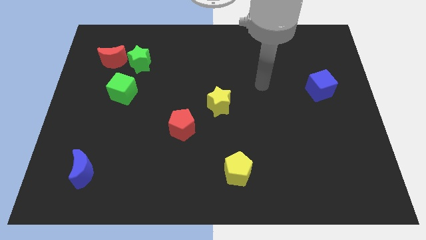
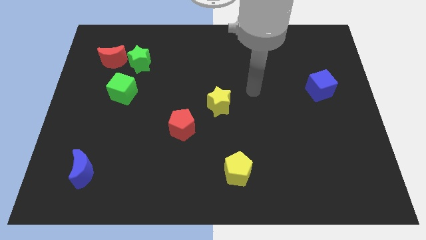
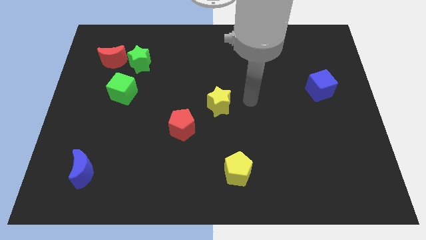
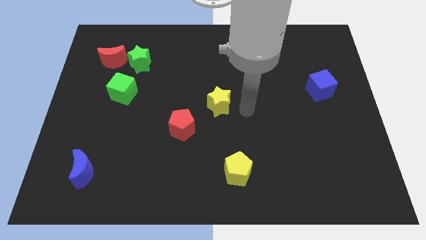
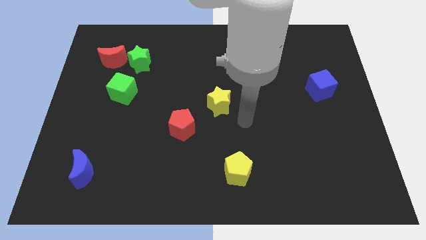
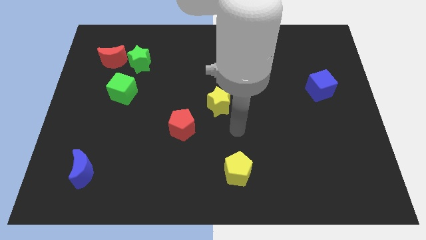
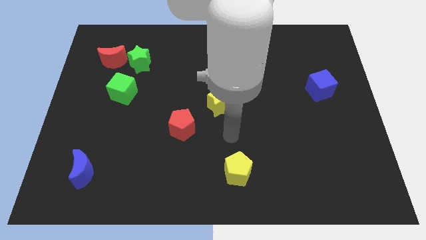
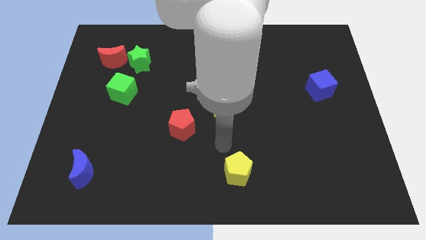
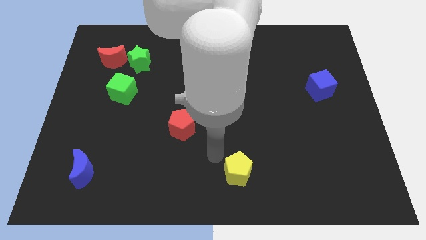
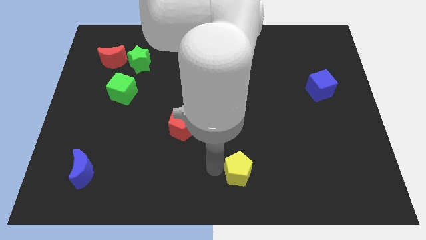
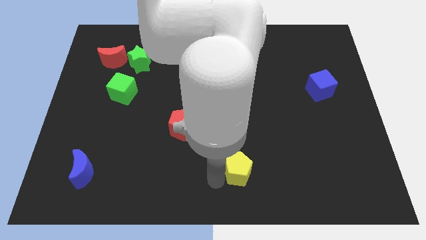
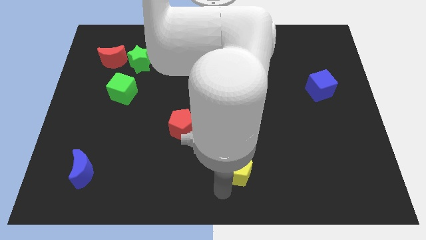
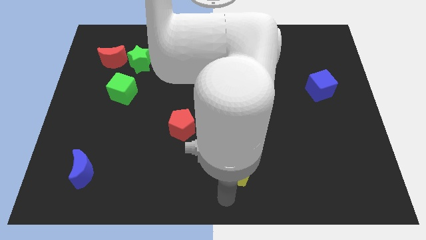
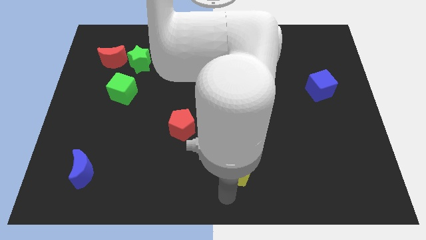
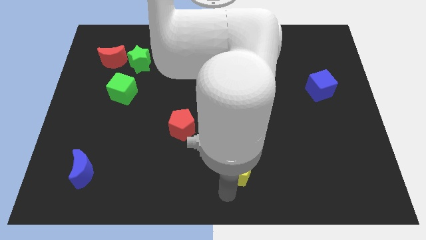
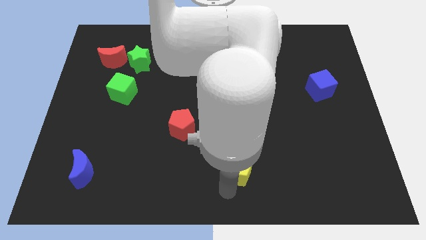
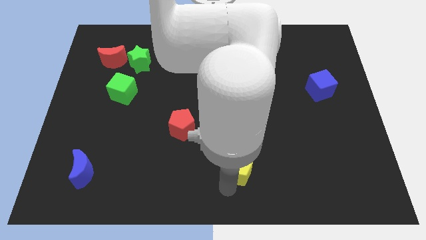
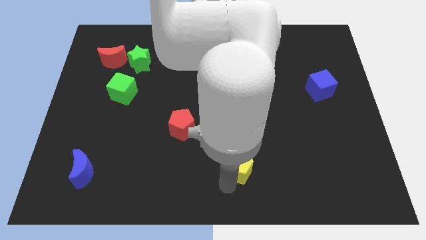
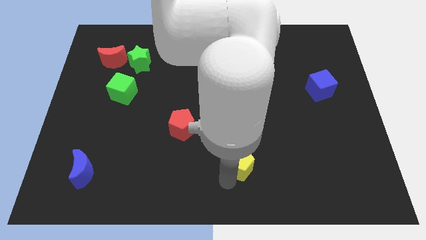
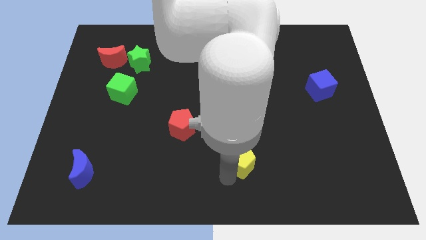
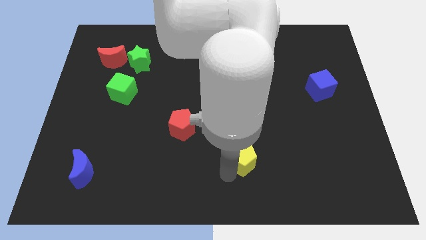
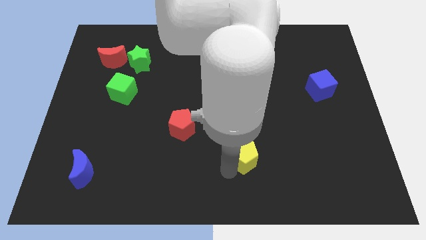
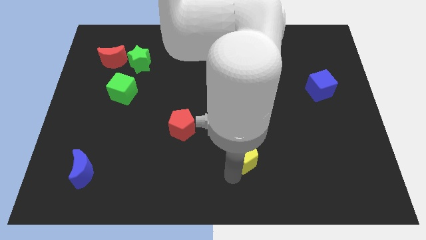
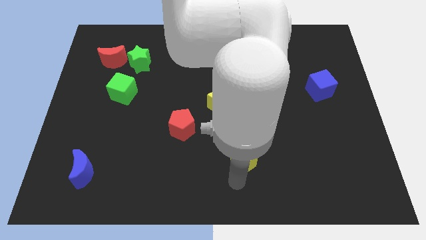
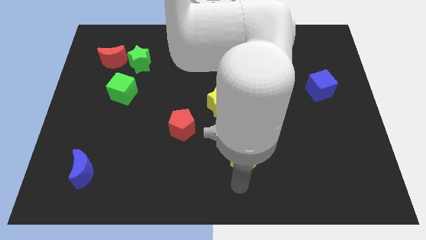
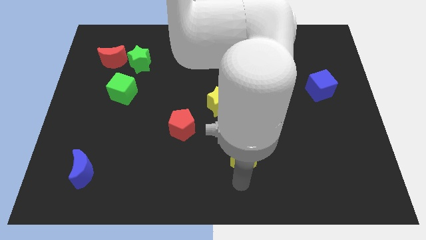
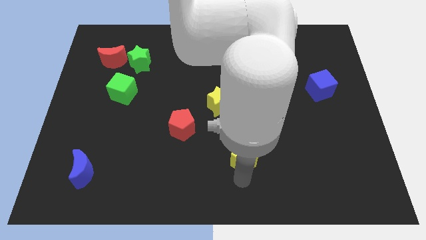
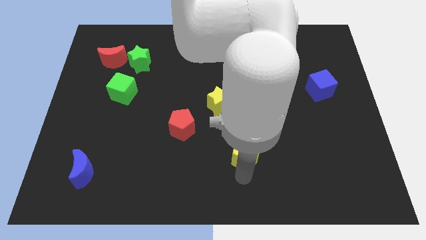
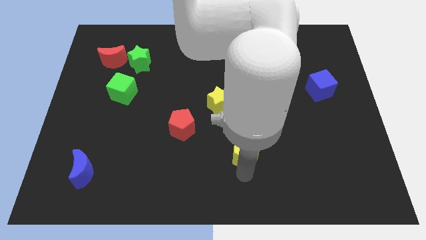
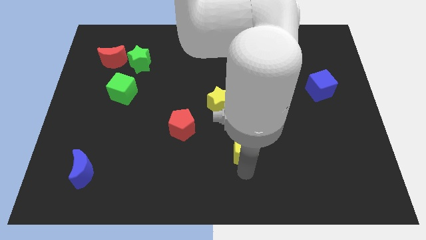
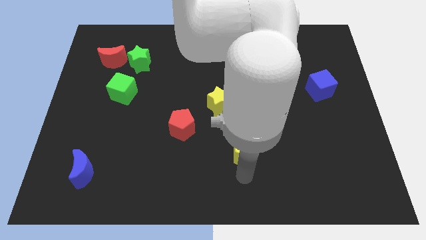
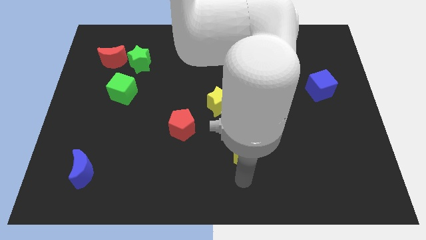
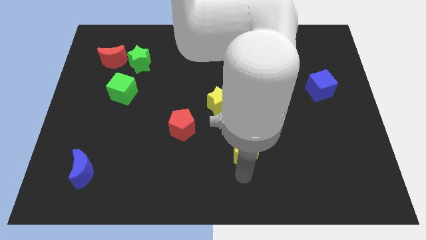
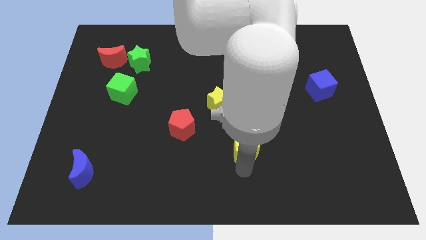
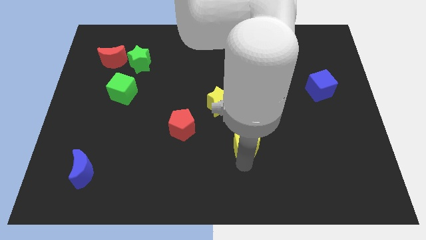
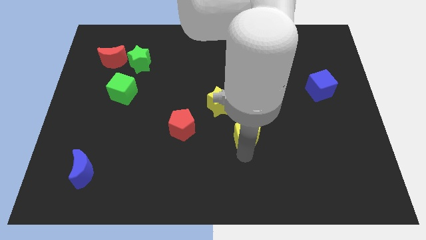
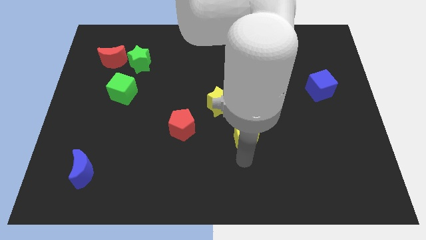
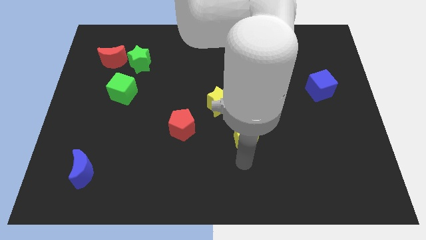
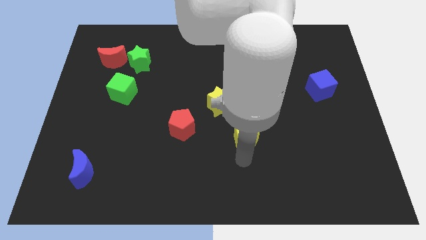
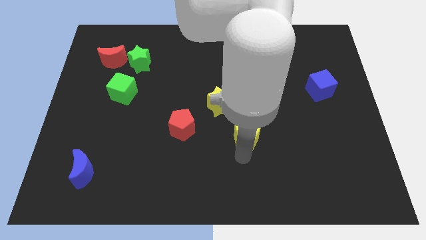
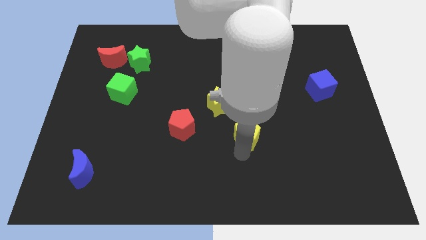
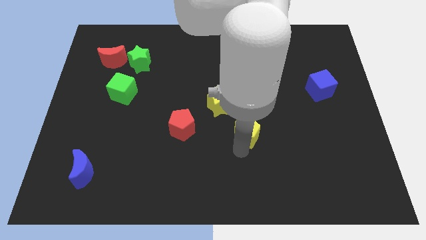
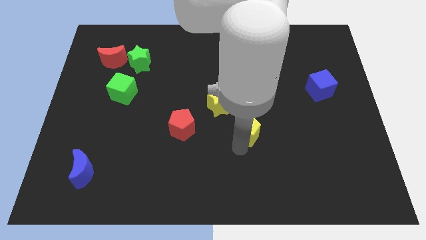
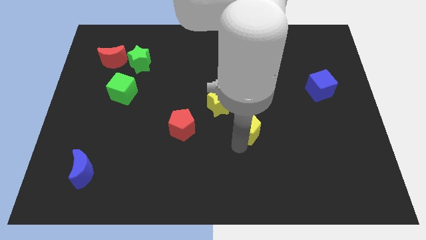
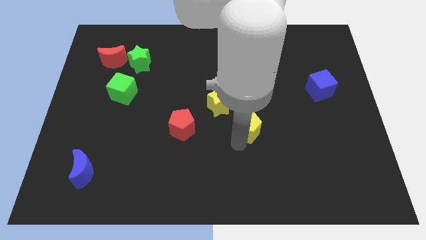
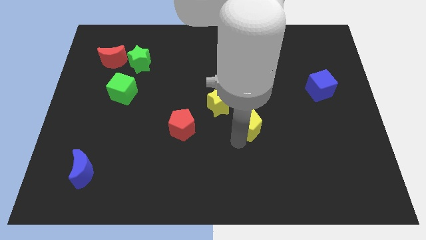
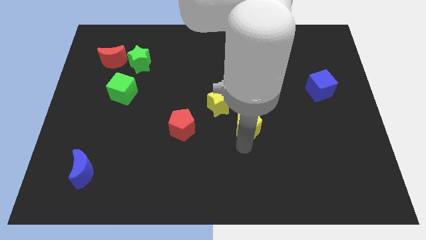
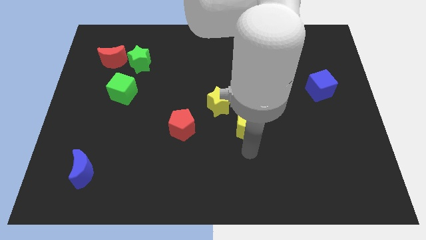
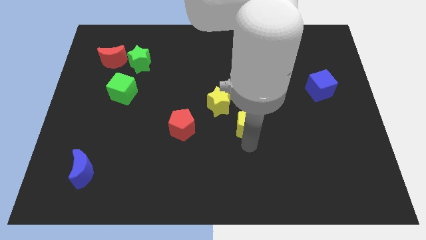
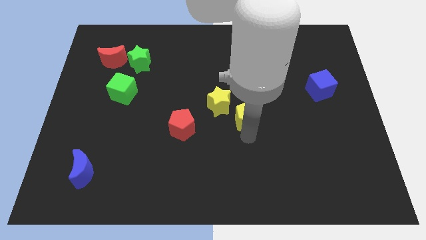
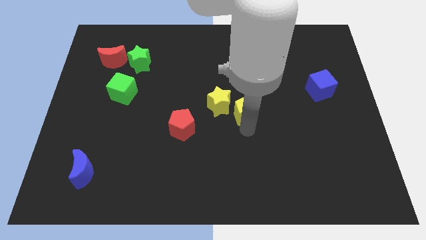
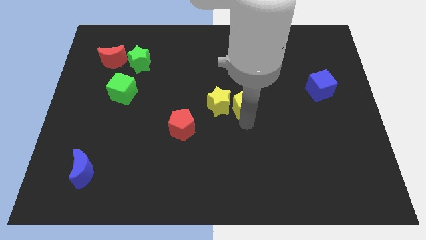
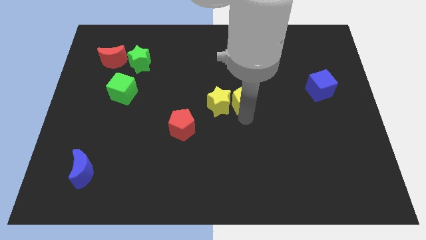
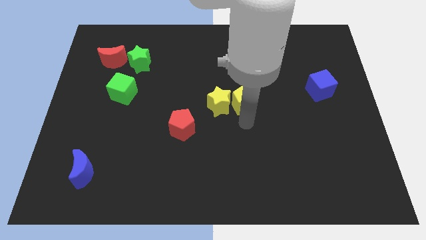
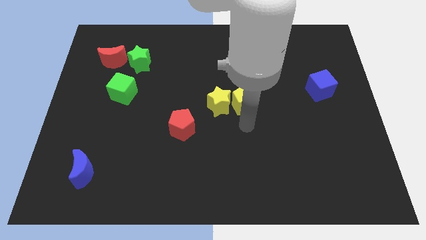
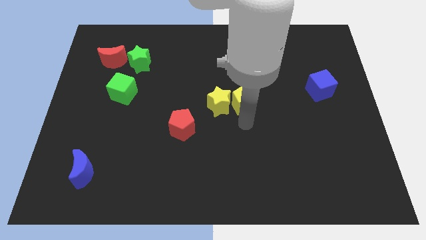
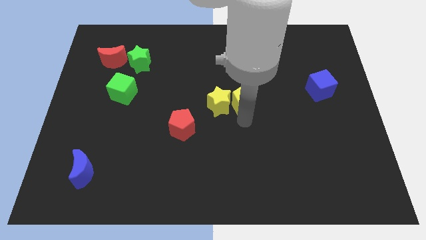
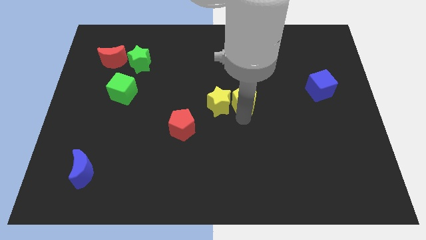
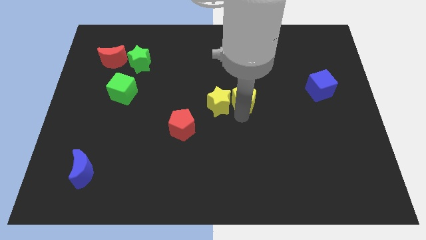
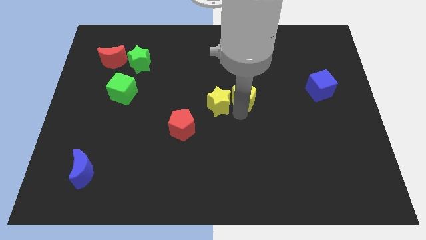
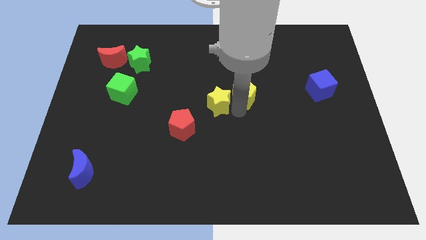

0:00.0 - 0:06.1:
push the yellow pentagon up

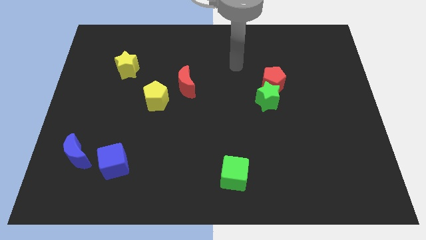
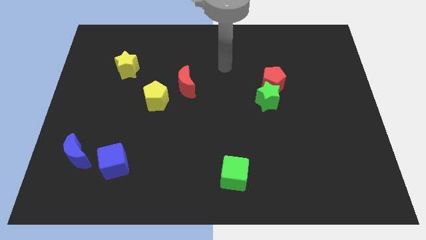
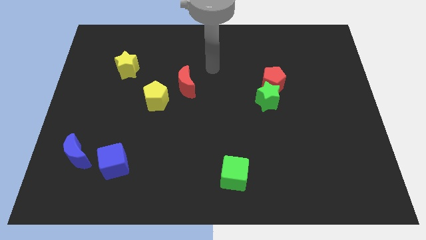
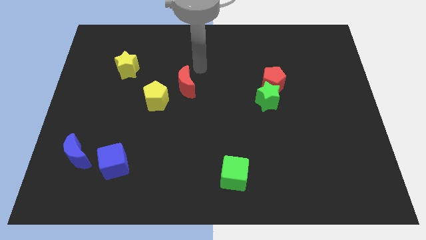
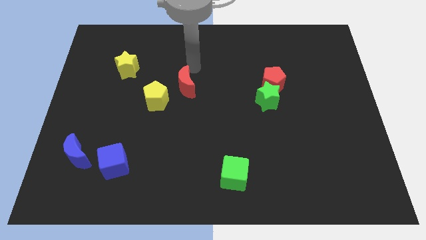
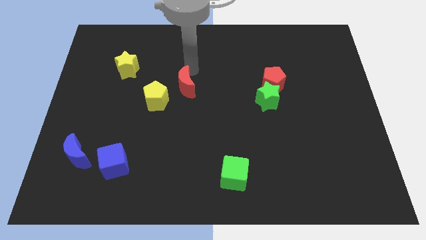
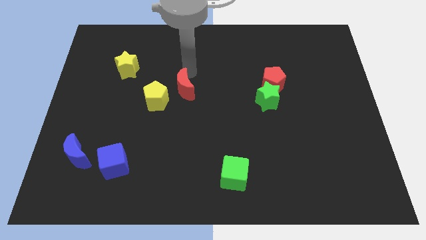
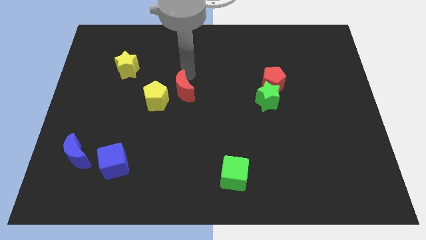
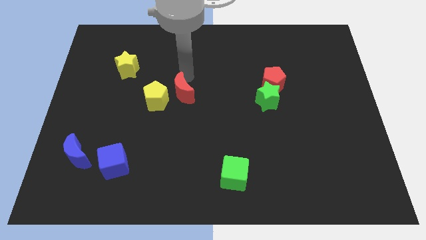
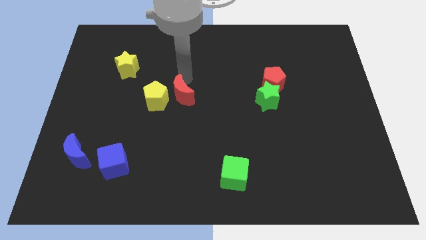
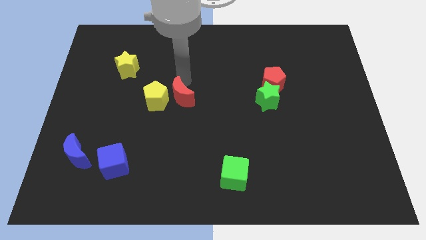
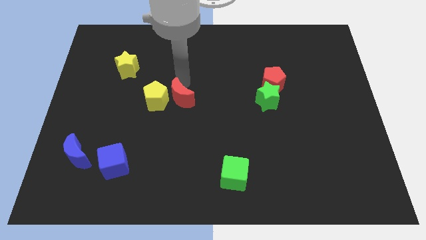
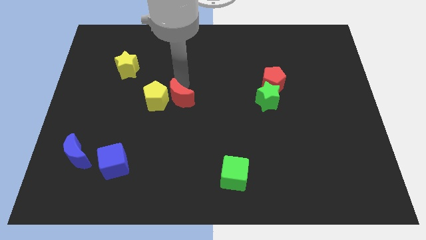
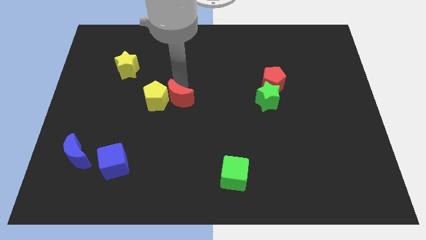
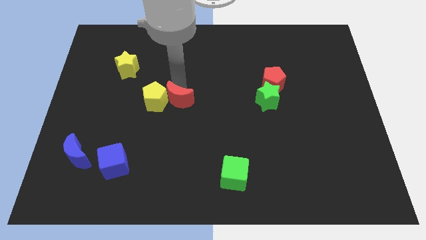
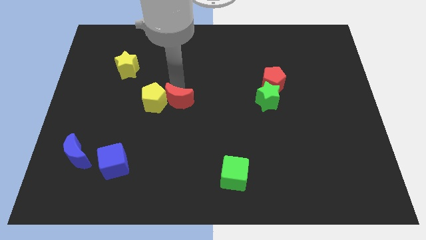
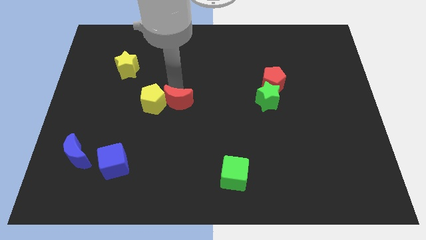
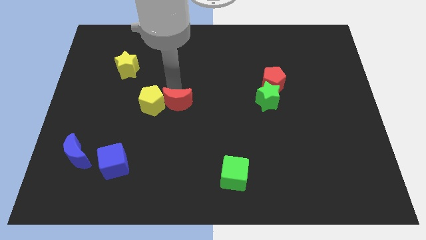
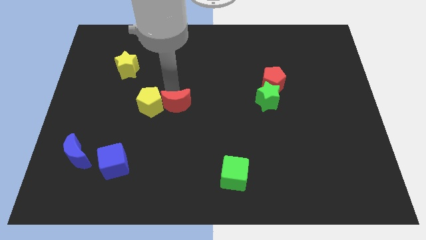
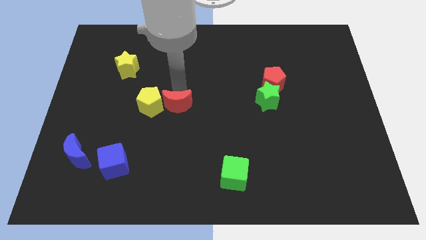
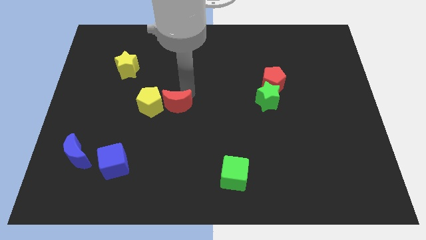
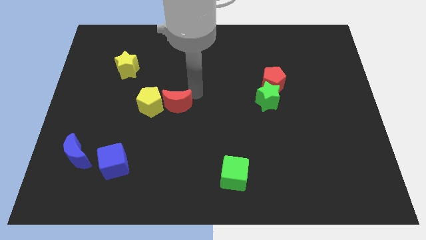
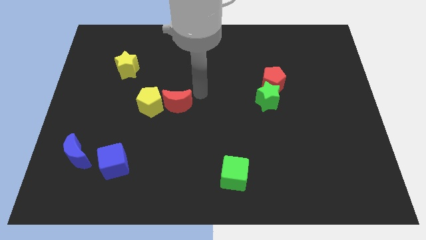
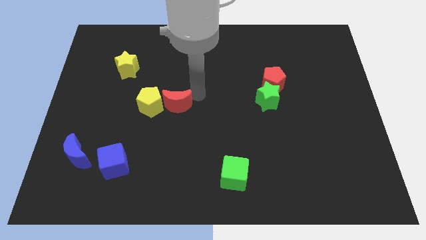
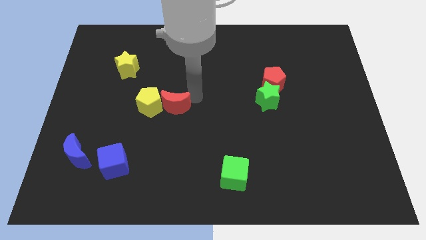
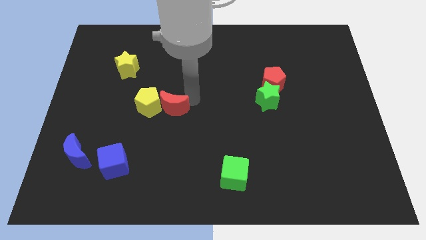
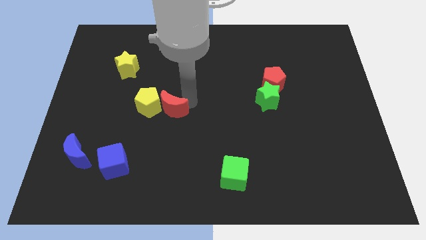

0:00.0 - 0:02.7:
move the red moon downwards and to the left diagonally slightly
